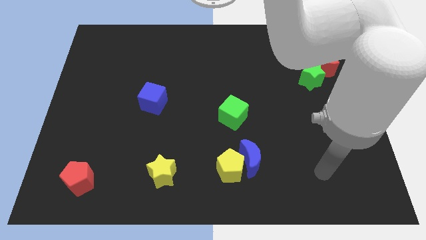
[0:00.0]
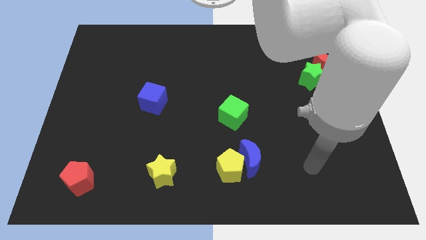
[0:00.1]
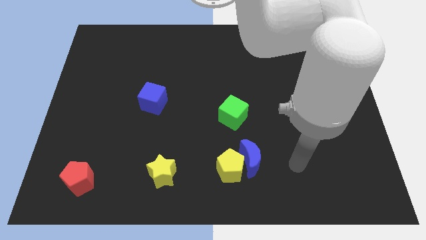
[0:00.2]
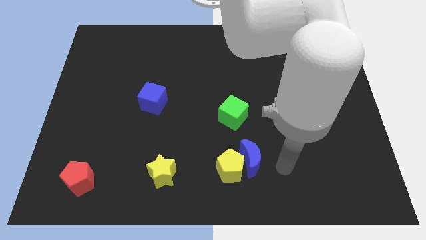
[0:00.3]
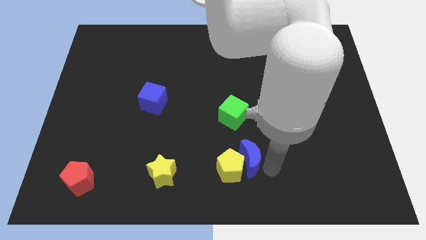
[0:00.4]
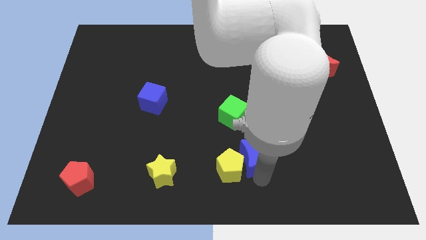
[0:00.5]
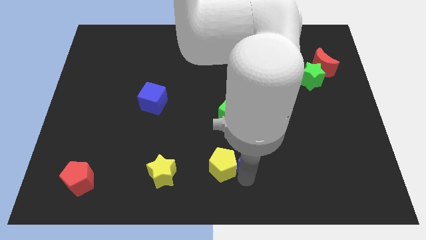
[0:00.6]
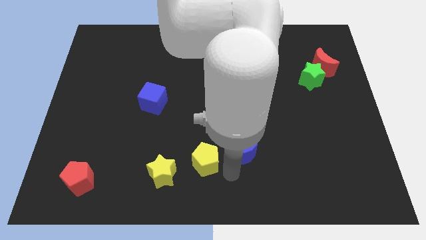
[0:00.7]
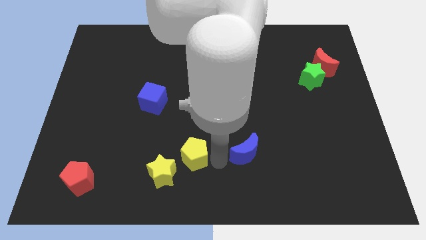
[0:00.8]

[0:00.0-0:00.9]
move the blue moon away from the yellow pentagon

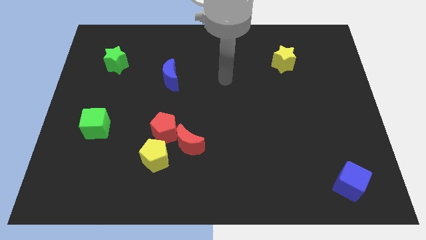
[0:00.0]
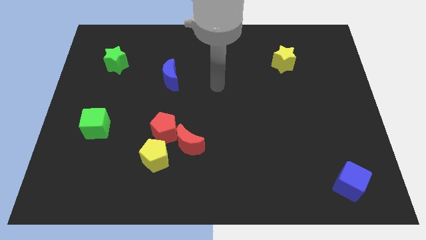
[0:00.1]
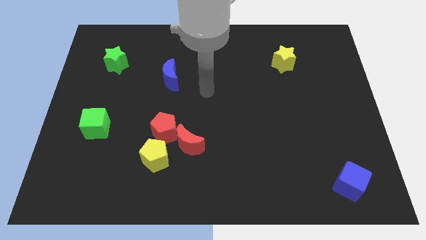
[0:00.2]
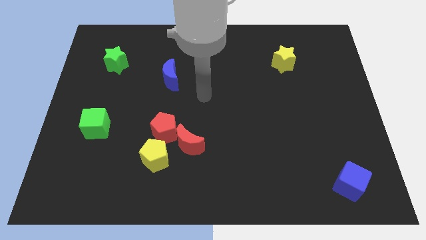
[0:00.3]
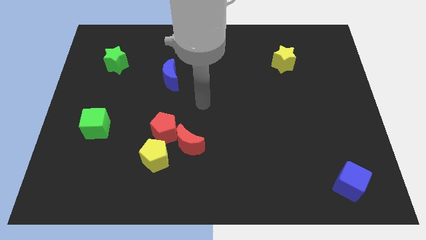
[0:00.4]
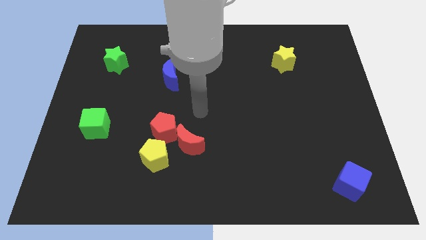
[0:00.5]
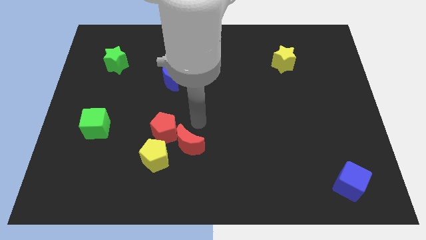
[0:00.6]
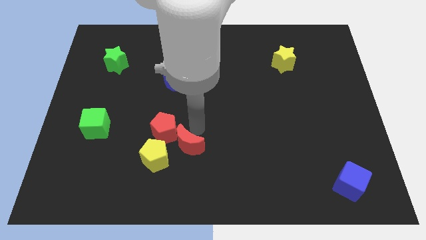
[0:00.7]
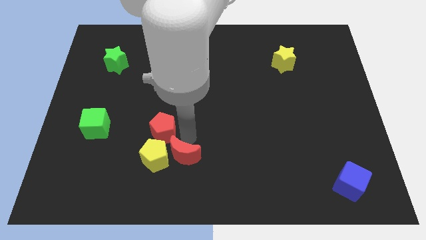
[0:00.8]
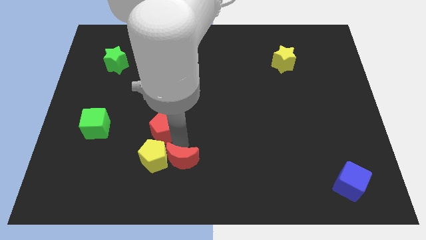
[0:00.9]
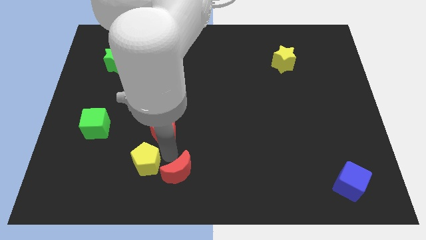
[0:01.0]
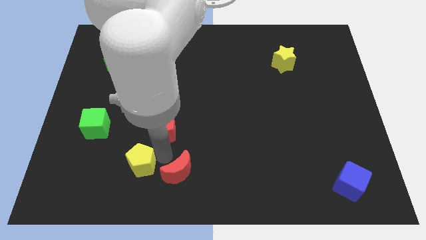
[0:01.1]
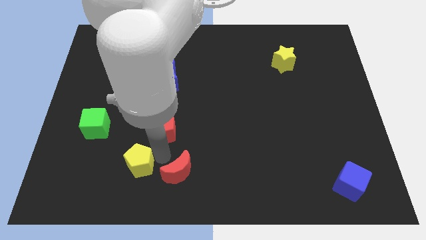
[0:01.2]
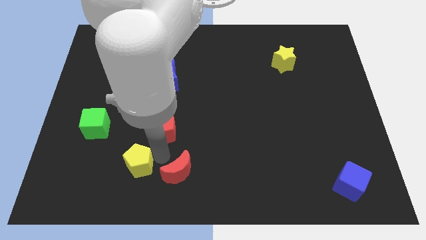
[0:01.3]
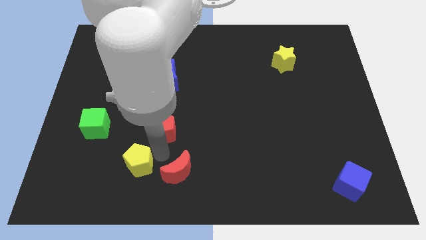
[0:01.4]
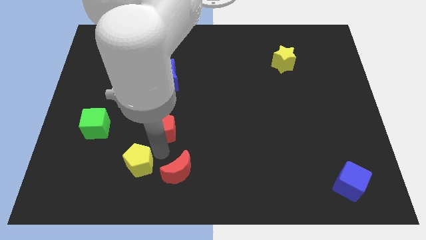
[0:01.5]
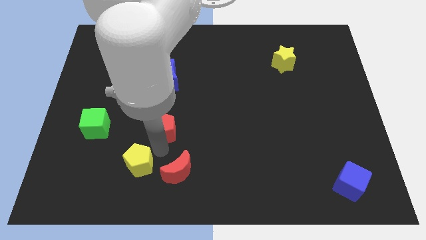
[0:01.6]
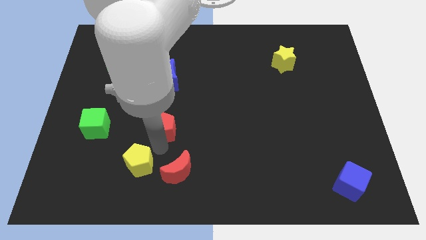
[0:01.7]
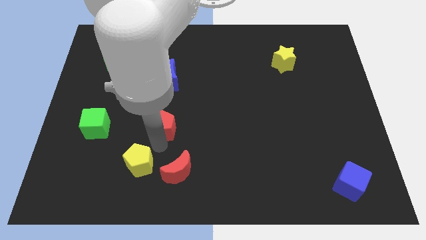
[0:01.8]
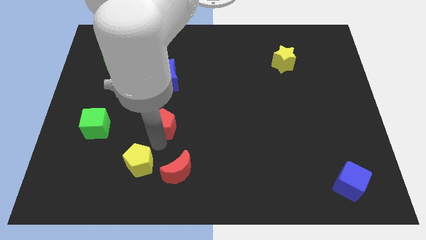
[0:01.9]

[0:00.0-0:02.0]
move the red pentagon away from the red moon and yellow pentagon

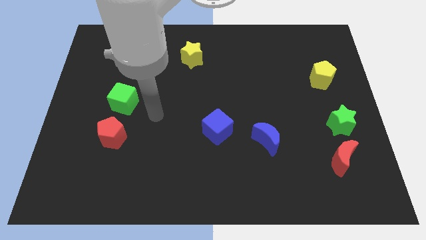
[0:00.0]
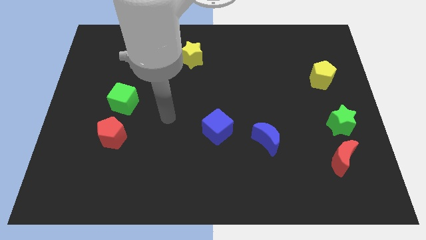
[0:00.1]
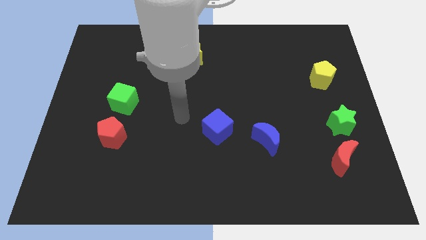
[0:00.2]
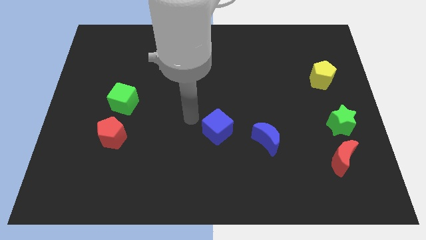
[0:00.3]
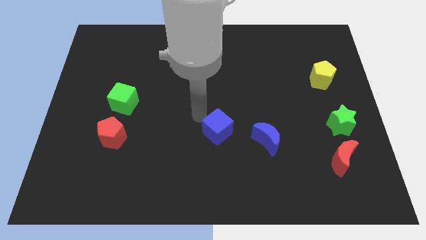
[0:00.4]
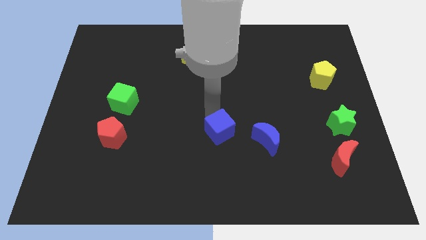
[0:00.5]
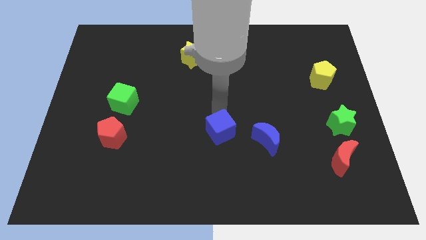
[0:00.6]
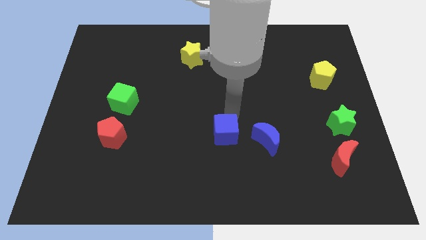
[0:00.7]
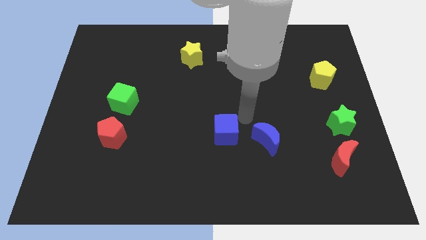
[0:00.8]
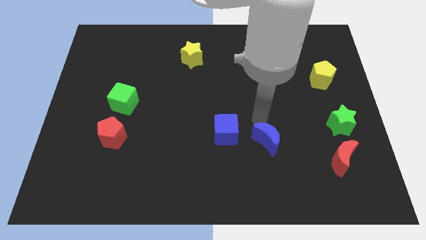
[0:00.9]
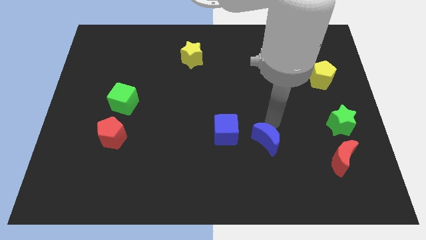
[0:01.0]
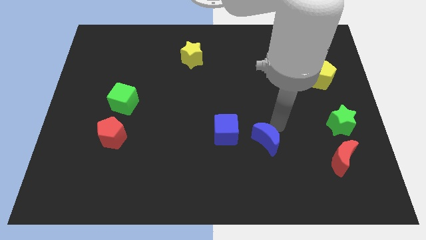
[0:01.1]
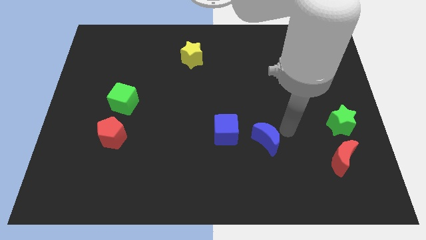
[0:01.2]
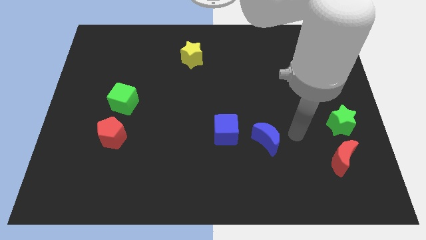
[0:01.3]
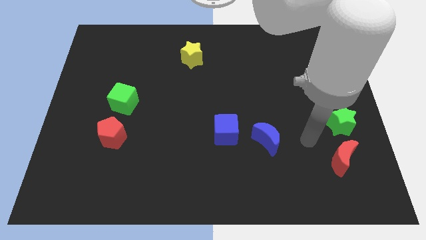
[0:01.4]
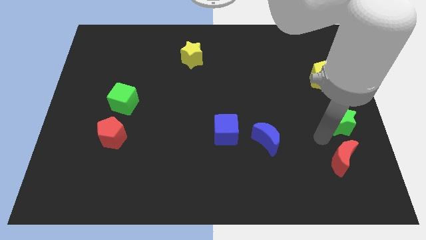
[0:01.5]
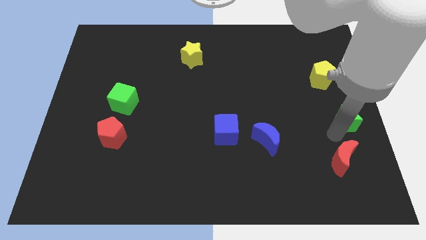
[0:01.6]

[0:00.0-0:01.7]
separate the red moon from the green star

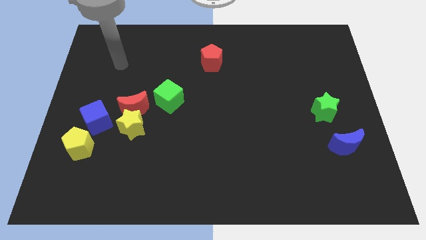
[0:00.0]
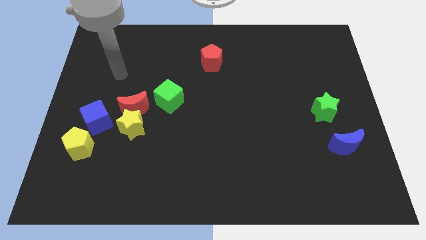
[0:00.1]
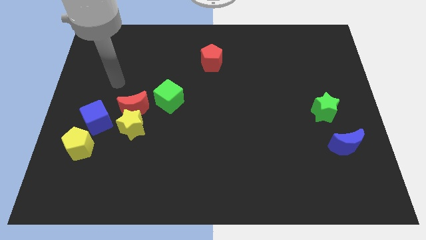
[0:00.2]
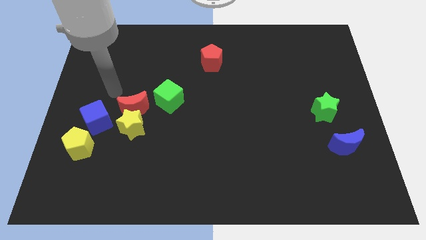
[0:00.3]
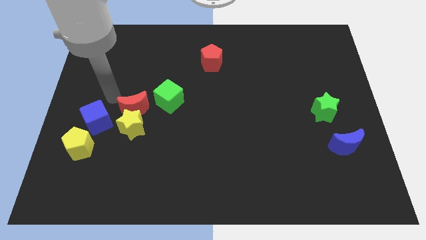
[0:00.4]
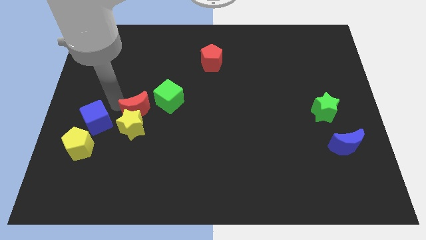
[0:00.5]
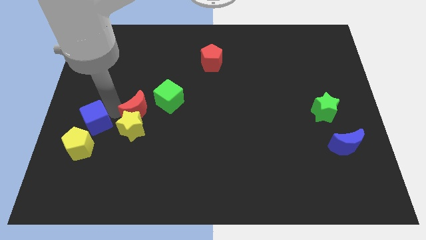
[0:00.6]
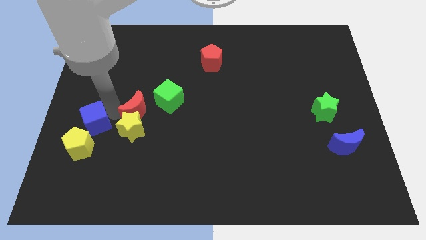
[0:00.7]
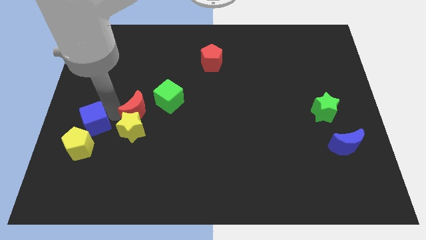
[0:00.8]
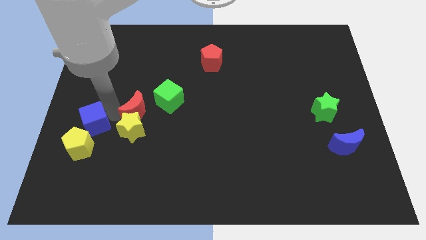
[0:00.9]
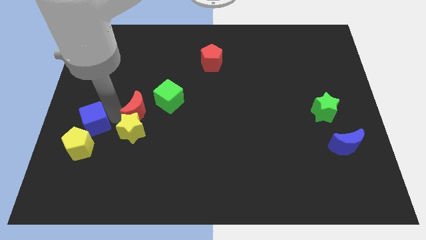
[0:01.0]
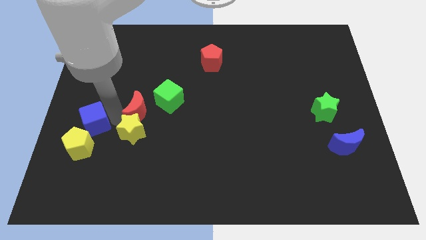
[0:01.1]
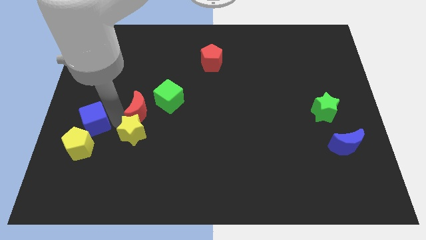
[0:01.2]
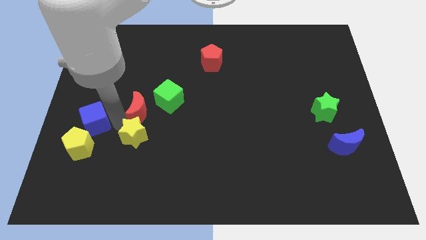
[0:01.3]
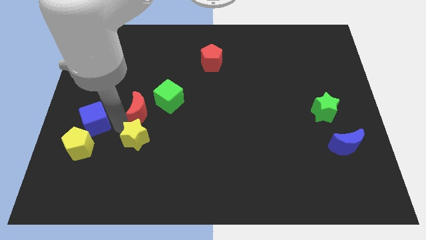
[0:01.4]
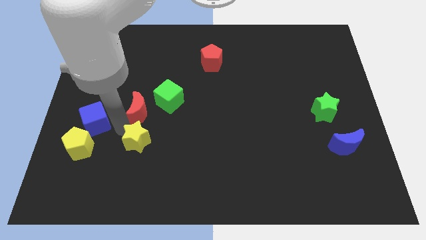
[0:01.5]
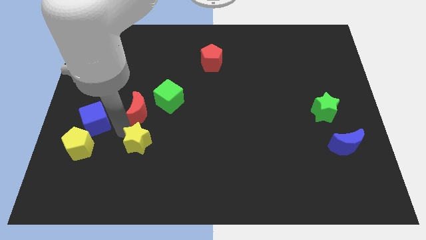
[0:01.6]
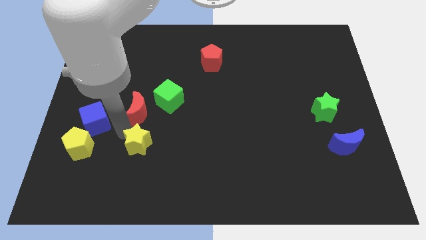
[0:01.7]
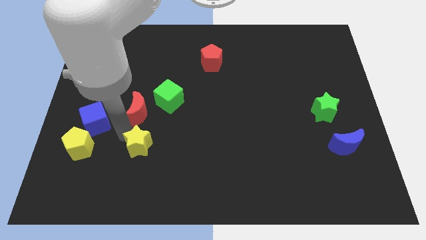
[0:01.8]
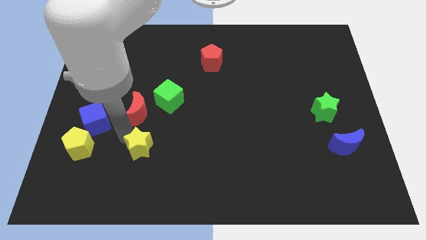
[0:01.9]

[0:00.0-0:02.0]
separate the yellow star from the red moon and blue cube

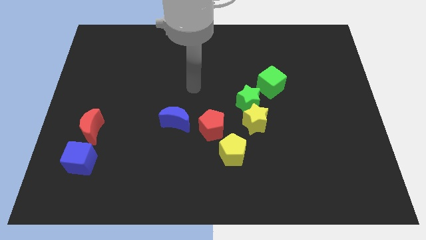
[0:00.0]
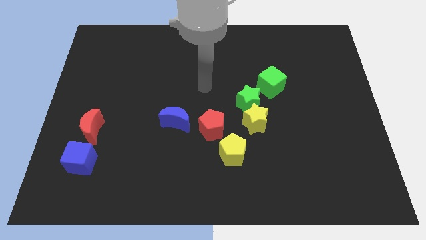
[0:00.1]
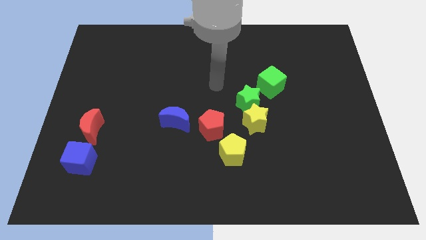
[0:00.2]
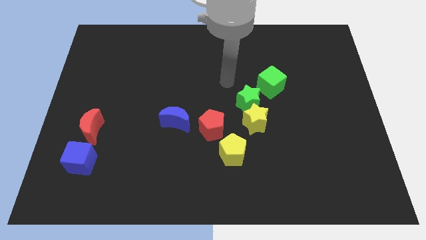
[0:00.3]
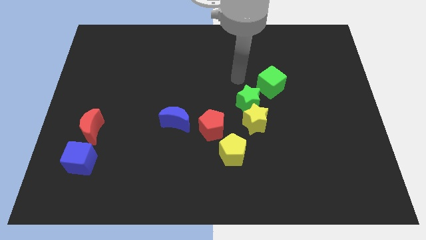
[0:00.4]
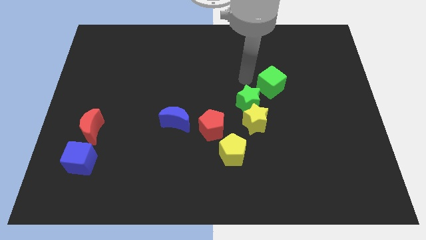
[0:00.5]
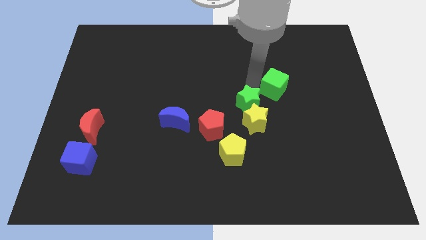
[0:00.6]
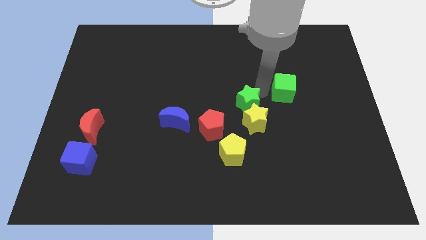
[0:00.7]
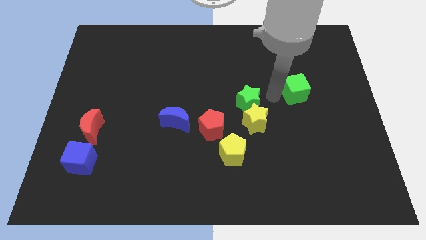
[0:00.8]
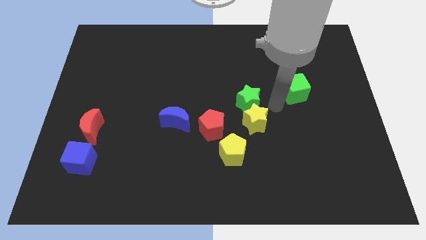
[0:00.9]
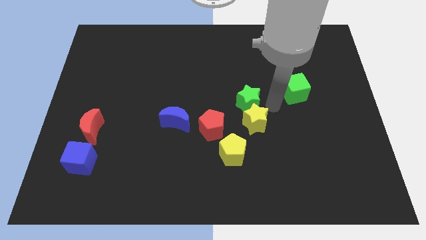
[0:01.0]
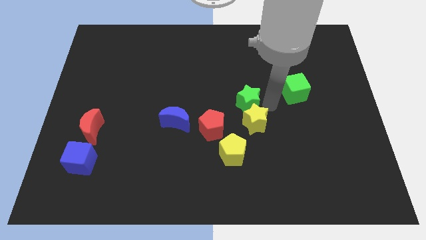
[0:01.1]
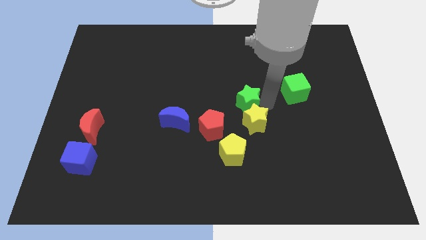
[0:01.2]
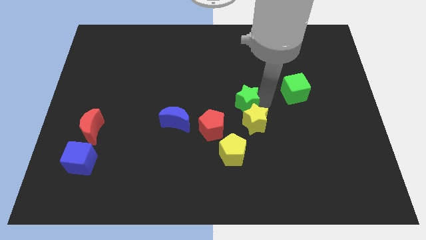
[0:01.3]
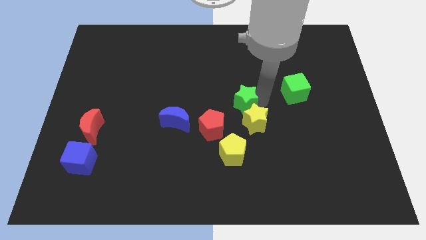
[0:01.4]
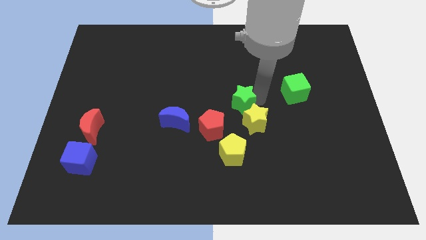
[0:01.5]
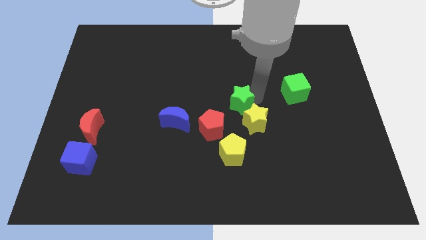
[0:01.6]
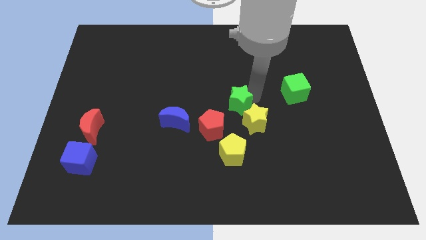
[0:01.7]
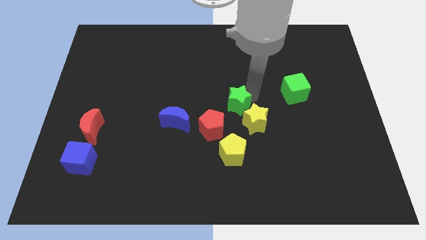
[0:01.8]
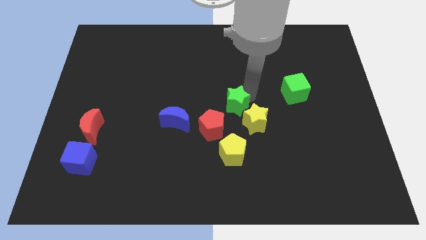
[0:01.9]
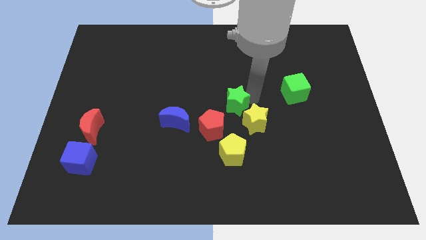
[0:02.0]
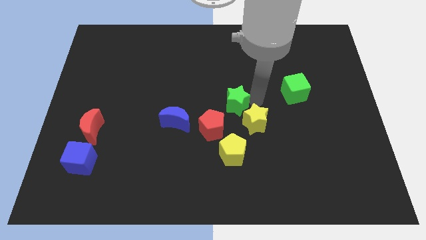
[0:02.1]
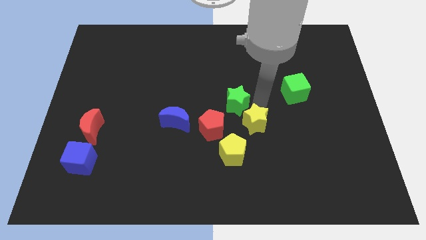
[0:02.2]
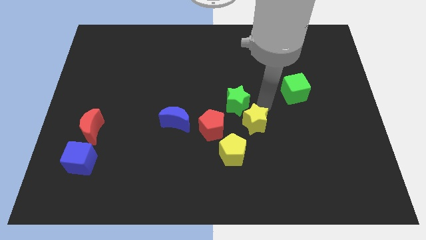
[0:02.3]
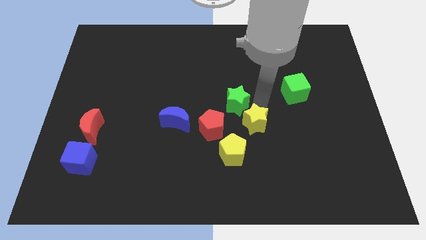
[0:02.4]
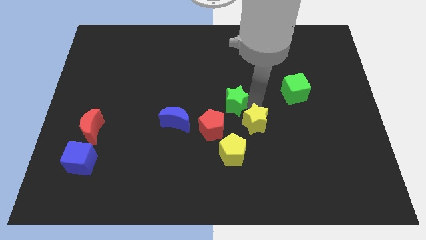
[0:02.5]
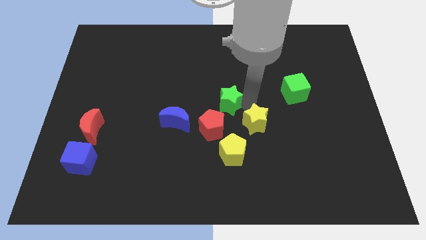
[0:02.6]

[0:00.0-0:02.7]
pull the green star apart from the yellow star and green cube
